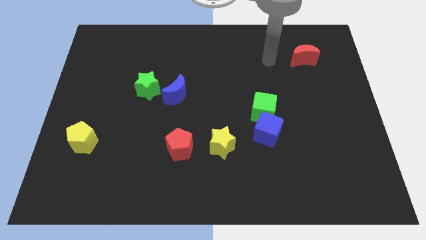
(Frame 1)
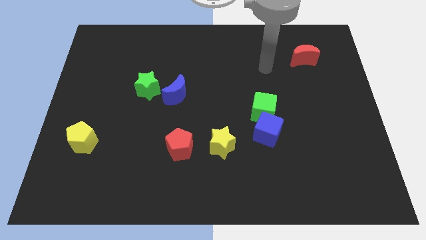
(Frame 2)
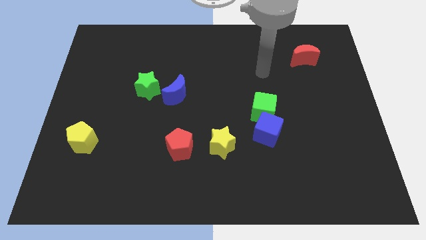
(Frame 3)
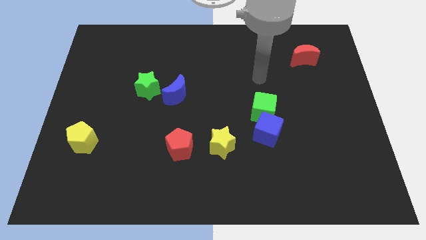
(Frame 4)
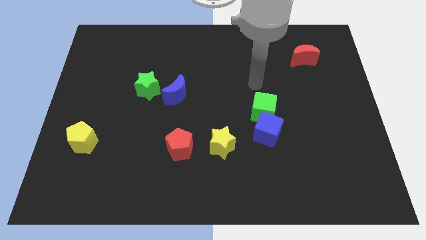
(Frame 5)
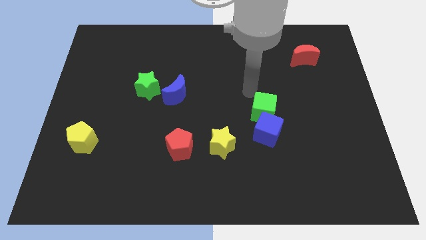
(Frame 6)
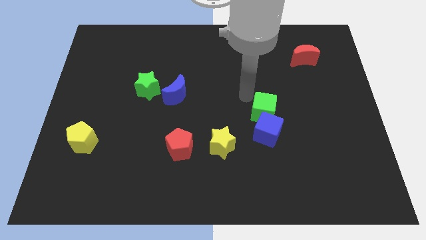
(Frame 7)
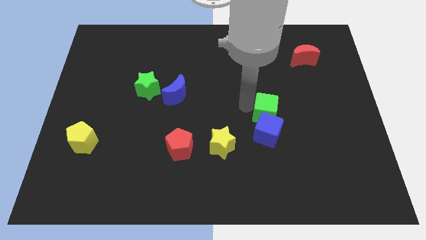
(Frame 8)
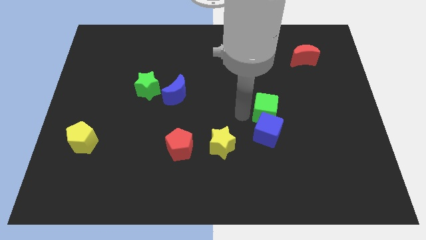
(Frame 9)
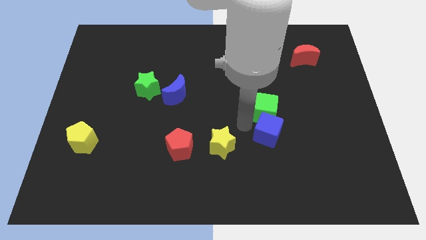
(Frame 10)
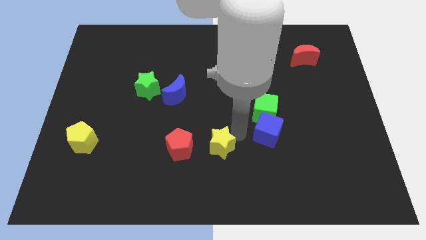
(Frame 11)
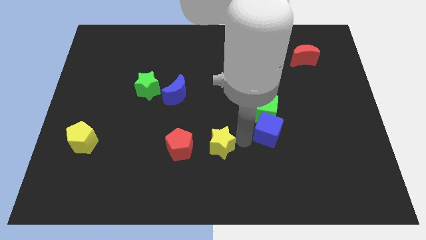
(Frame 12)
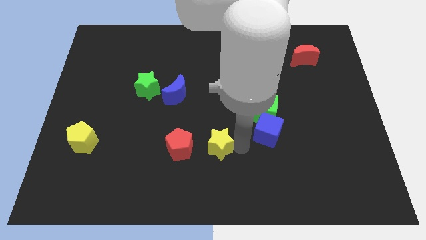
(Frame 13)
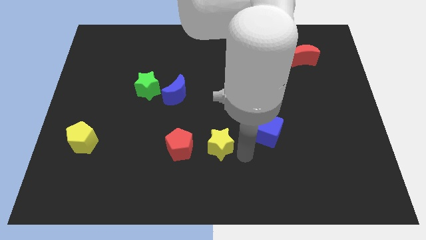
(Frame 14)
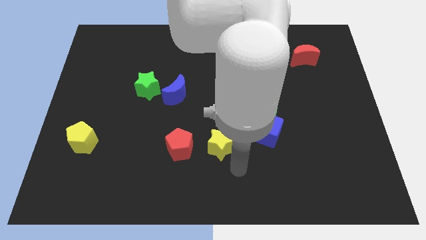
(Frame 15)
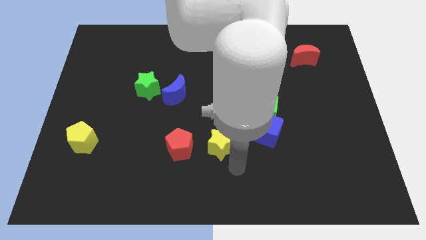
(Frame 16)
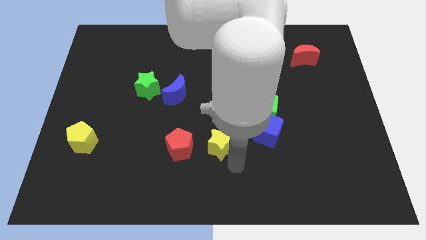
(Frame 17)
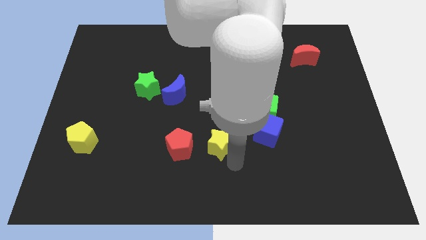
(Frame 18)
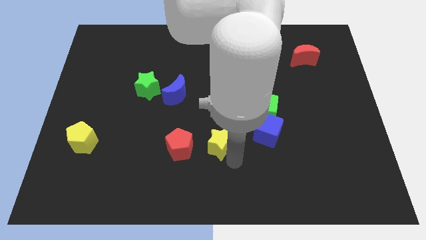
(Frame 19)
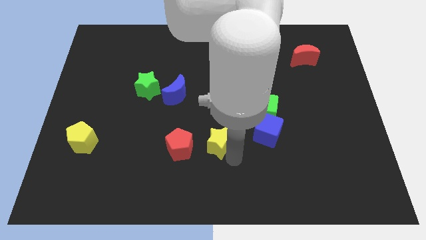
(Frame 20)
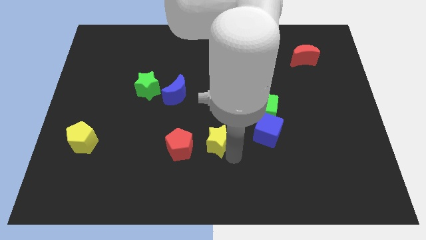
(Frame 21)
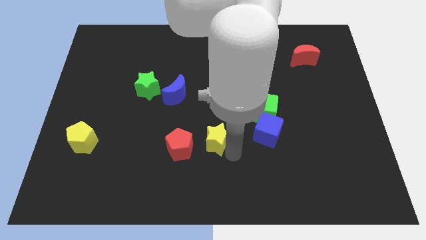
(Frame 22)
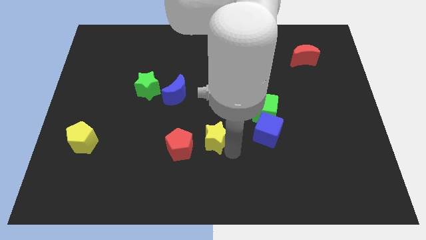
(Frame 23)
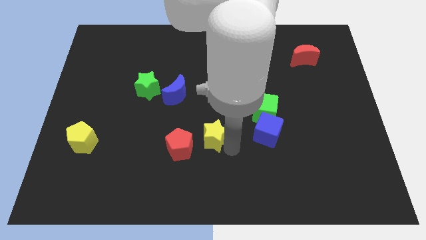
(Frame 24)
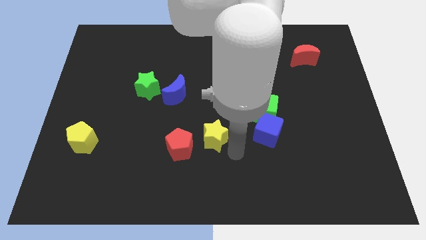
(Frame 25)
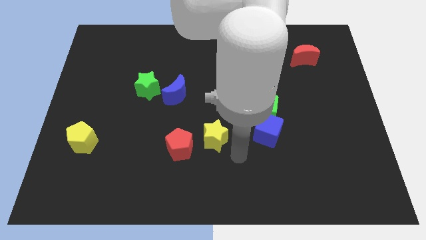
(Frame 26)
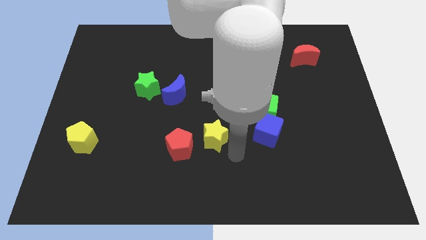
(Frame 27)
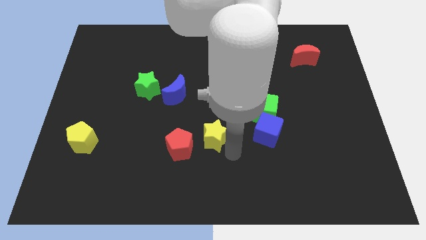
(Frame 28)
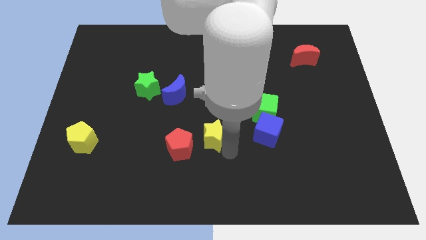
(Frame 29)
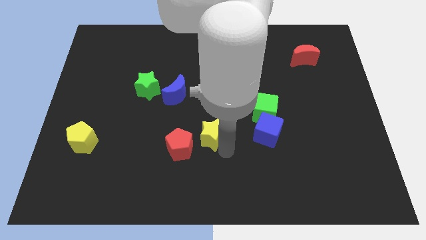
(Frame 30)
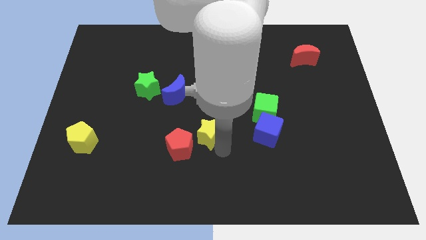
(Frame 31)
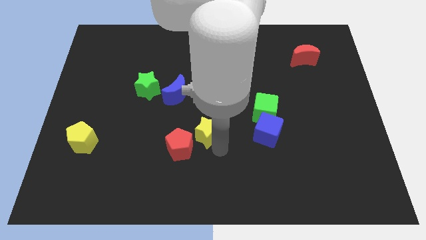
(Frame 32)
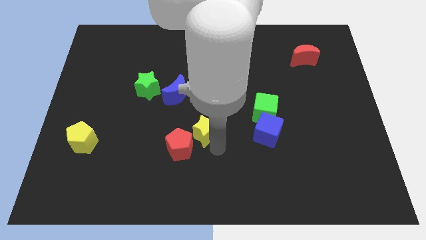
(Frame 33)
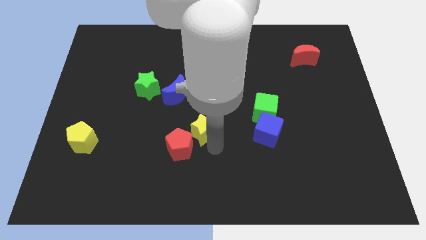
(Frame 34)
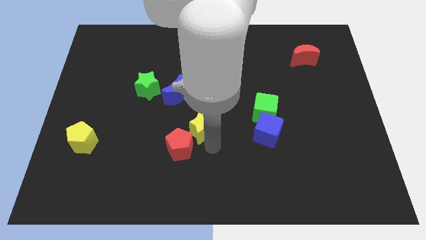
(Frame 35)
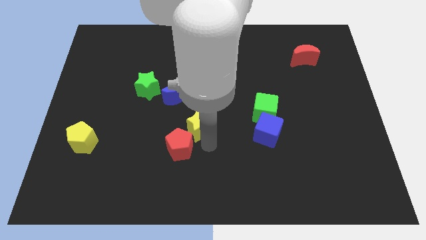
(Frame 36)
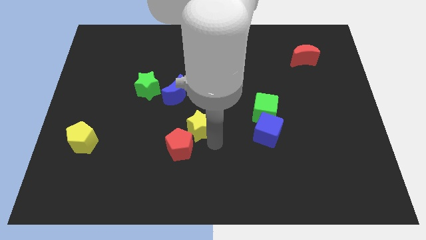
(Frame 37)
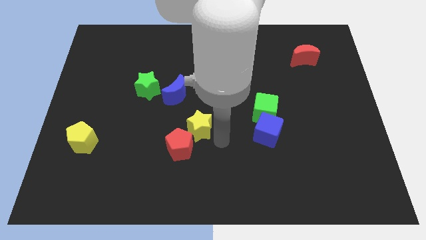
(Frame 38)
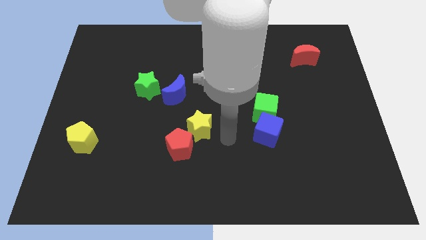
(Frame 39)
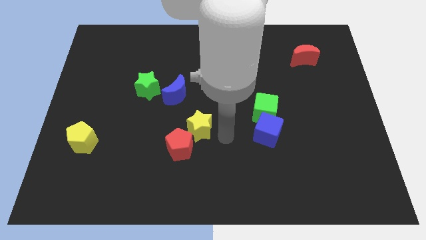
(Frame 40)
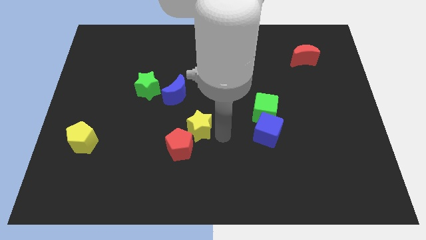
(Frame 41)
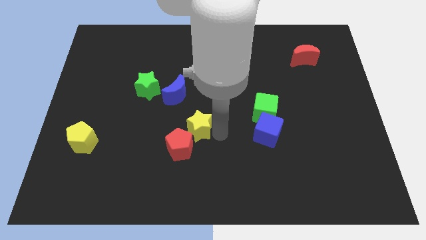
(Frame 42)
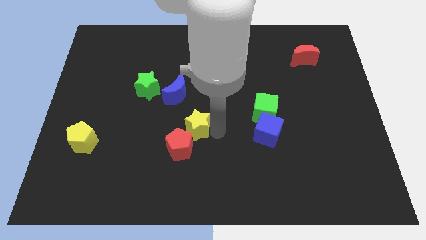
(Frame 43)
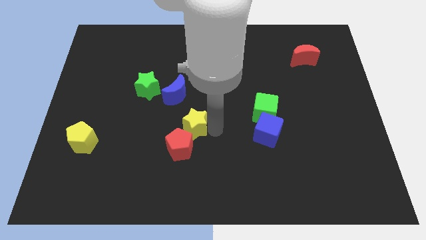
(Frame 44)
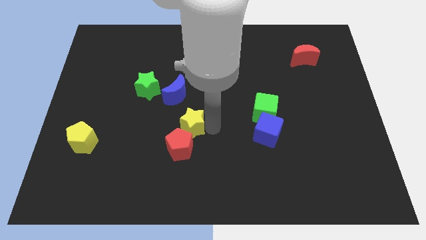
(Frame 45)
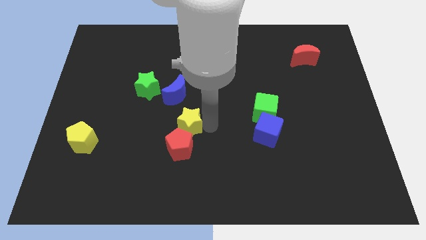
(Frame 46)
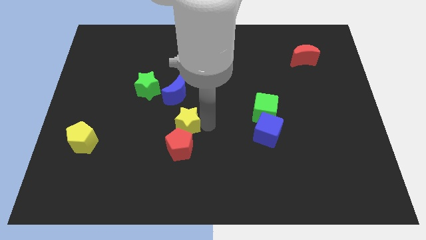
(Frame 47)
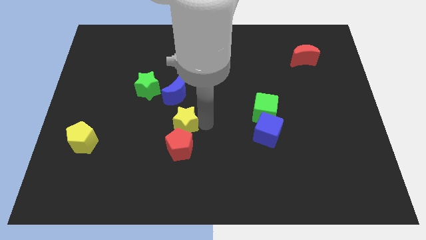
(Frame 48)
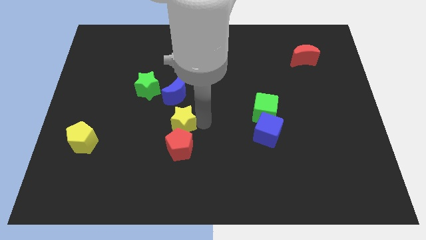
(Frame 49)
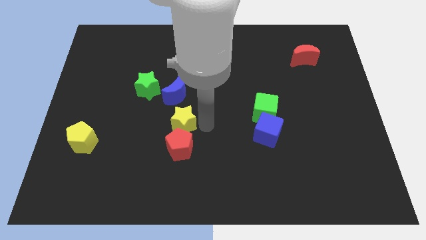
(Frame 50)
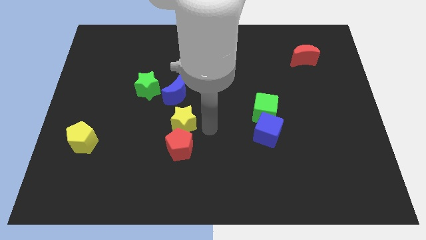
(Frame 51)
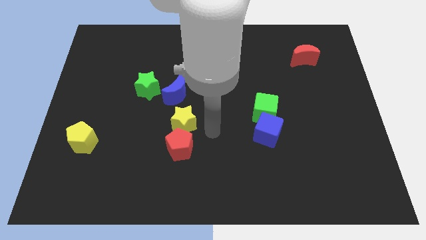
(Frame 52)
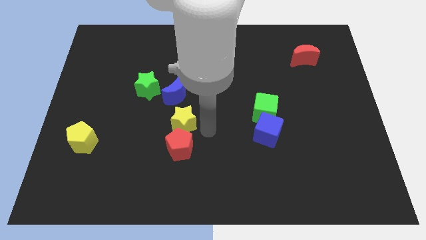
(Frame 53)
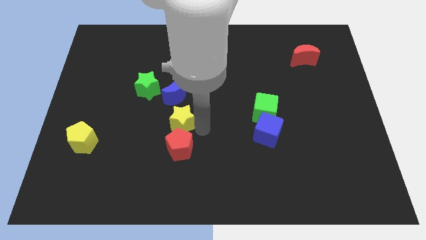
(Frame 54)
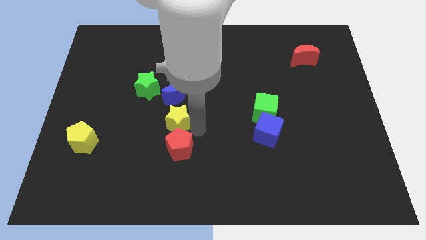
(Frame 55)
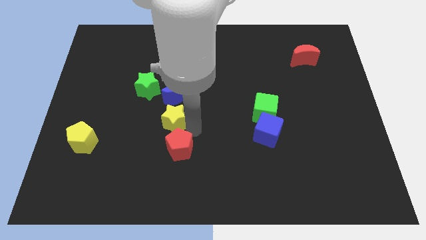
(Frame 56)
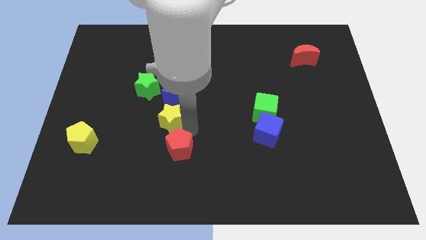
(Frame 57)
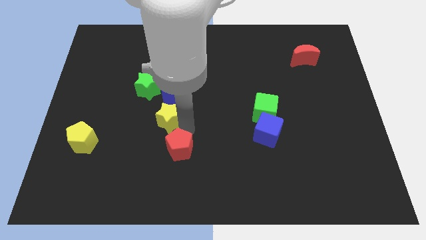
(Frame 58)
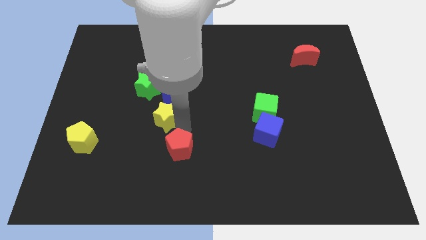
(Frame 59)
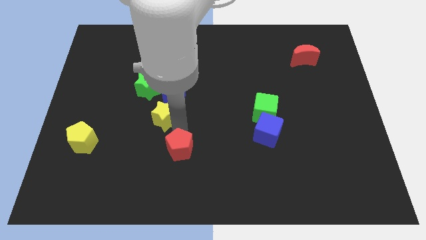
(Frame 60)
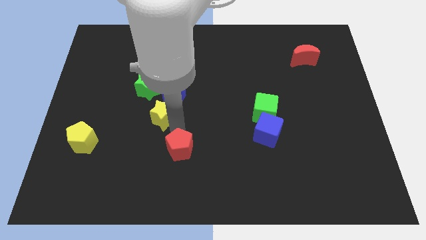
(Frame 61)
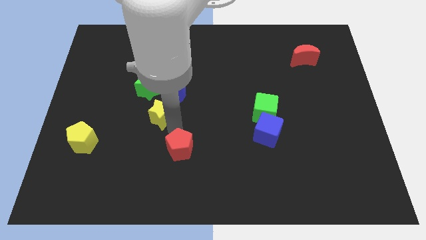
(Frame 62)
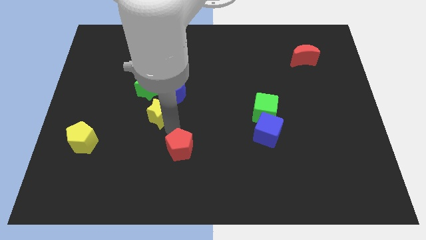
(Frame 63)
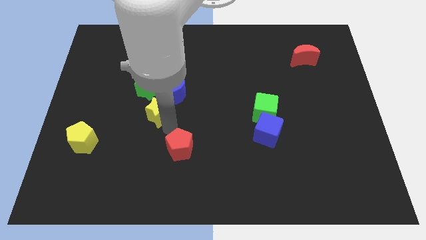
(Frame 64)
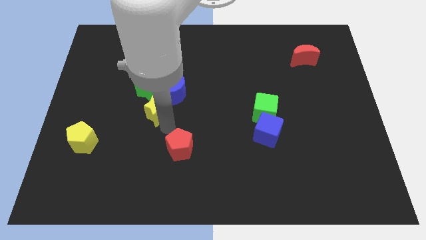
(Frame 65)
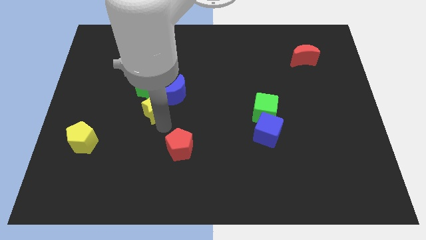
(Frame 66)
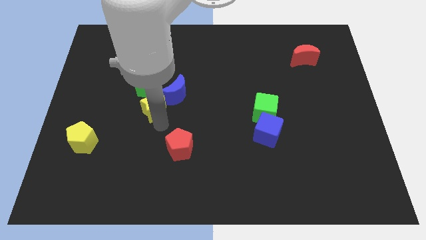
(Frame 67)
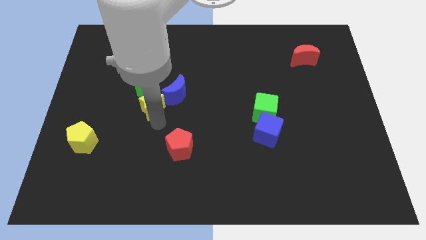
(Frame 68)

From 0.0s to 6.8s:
slide the yellow star next to the green star

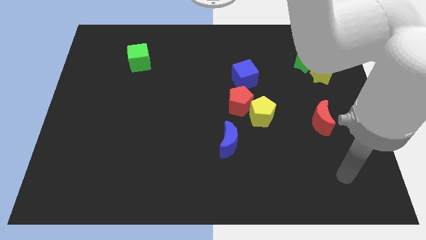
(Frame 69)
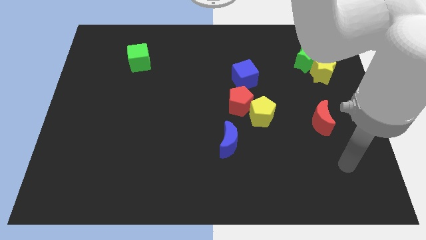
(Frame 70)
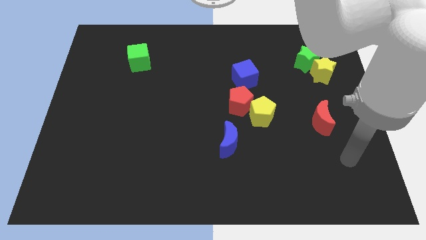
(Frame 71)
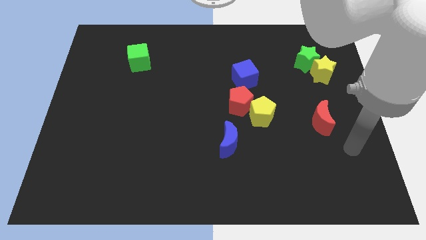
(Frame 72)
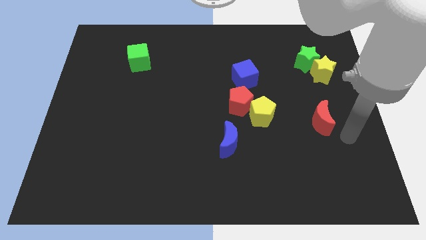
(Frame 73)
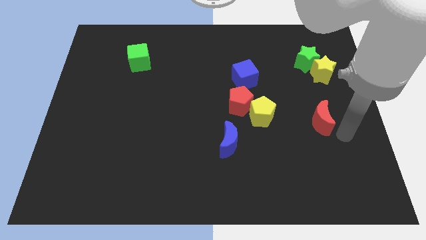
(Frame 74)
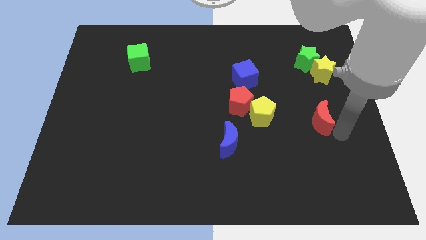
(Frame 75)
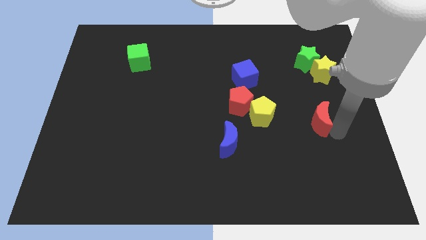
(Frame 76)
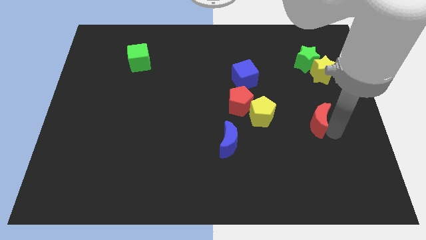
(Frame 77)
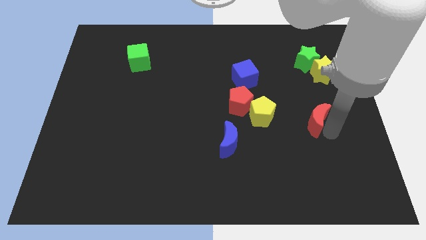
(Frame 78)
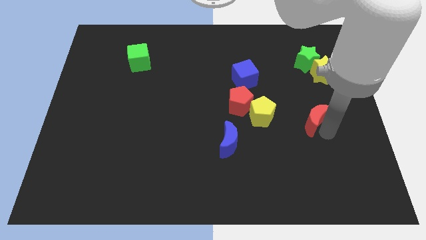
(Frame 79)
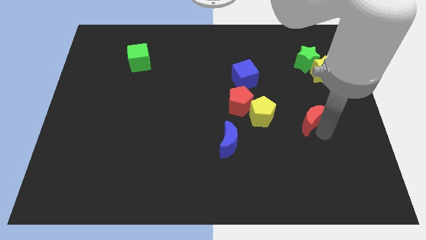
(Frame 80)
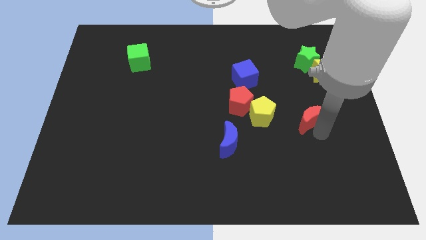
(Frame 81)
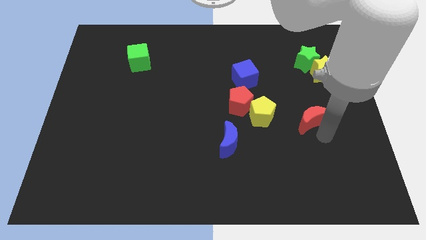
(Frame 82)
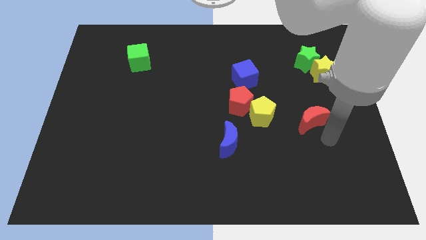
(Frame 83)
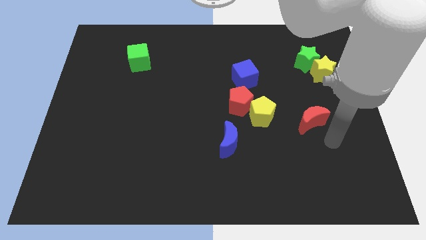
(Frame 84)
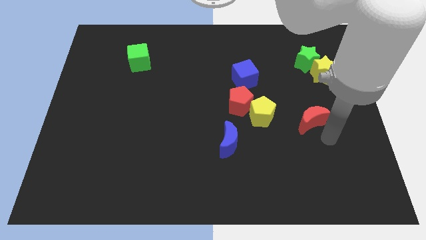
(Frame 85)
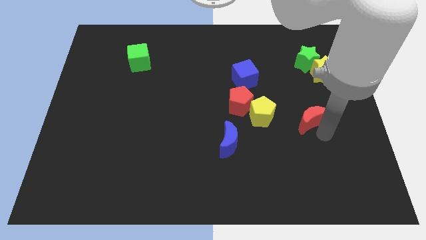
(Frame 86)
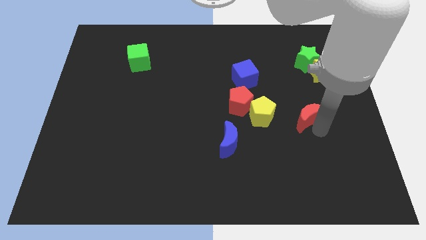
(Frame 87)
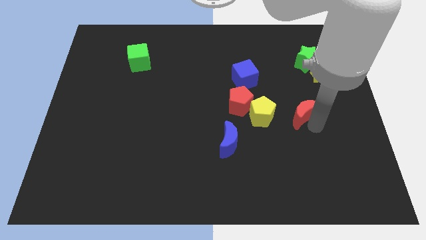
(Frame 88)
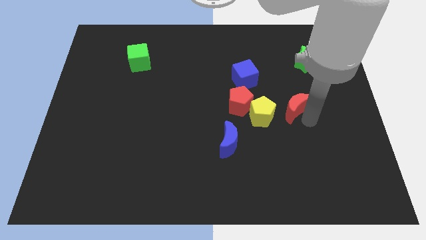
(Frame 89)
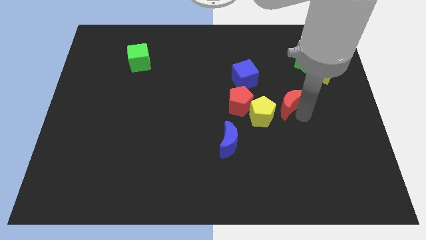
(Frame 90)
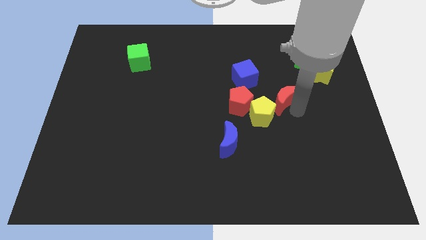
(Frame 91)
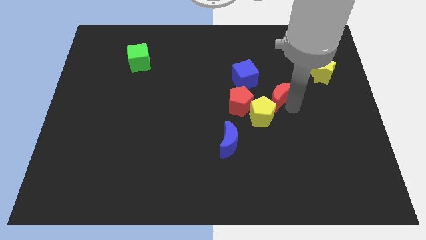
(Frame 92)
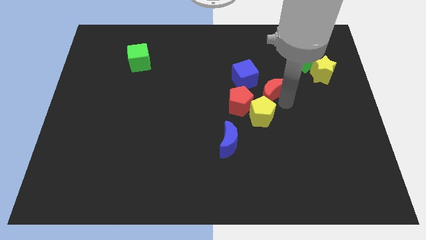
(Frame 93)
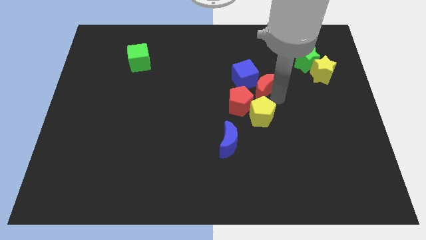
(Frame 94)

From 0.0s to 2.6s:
move the red moon close to the blue cube
